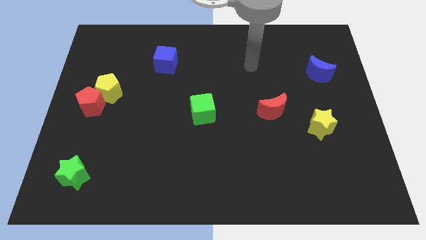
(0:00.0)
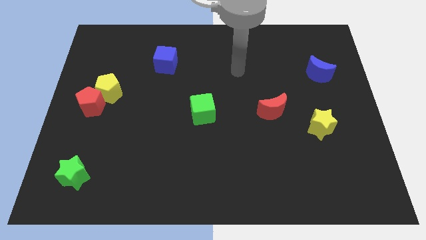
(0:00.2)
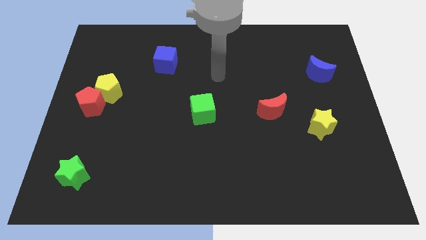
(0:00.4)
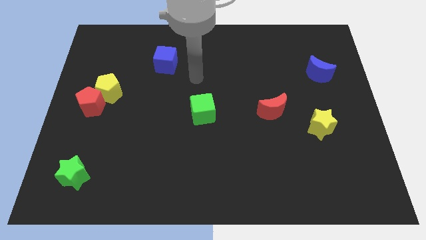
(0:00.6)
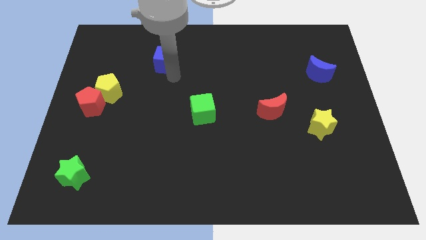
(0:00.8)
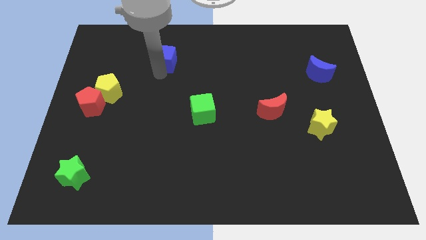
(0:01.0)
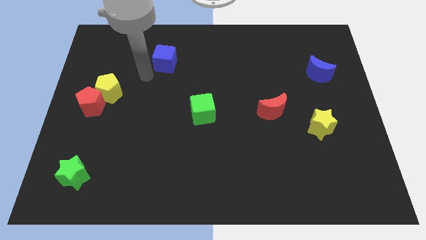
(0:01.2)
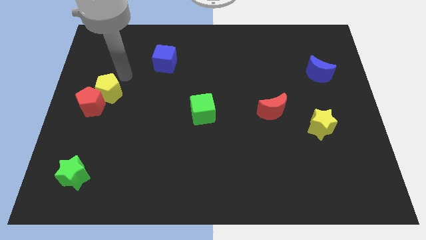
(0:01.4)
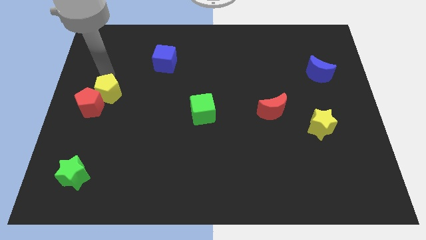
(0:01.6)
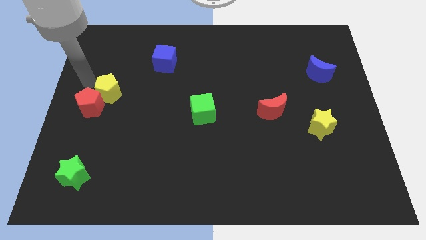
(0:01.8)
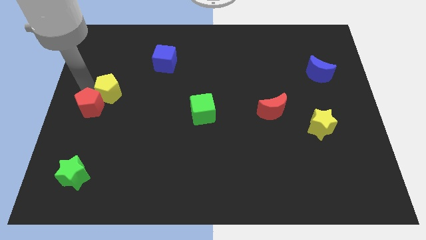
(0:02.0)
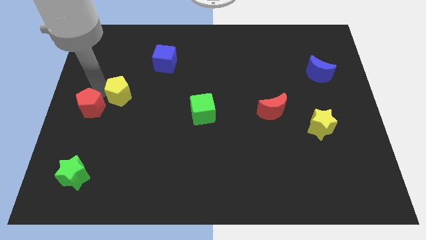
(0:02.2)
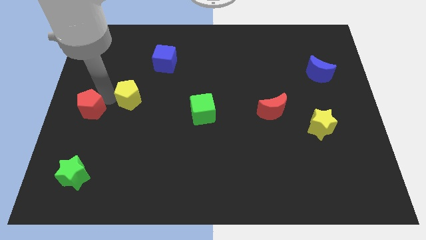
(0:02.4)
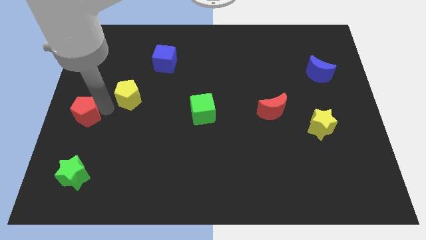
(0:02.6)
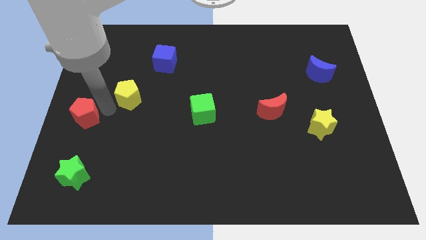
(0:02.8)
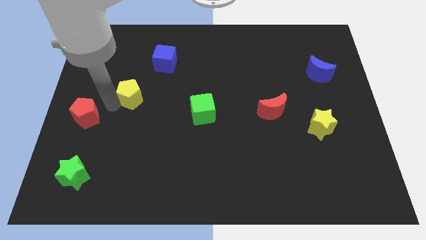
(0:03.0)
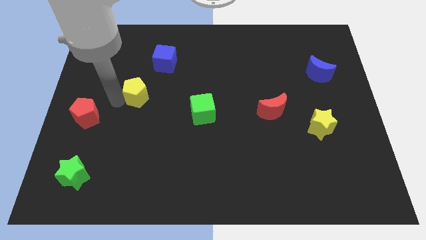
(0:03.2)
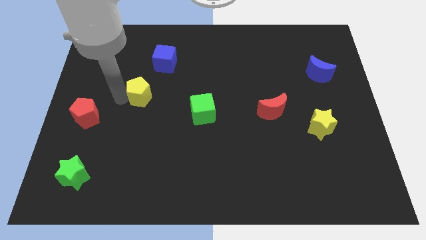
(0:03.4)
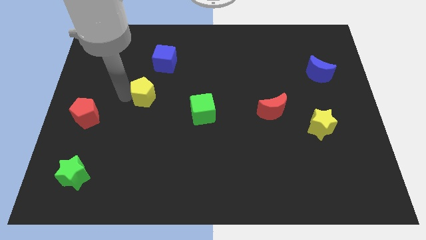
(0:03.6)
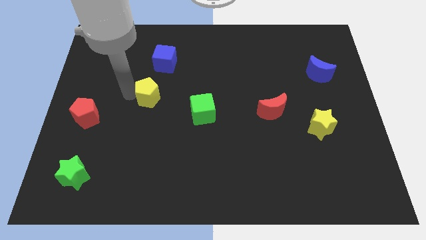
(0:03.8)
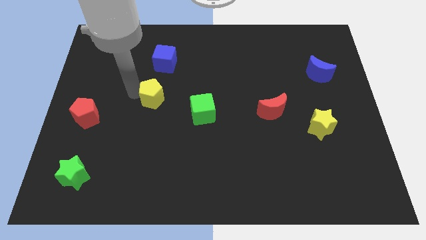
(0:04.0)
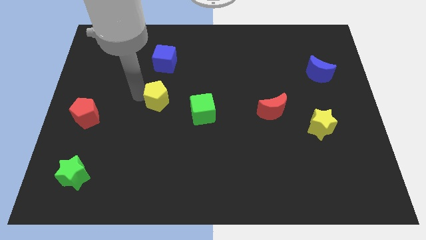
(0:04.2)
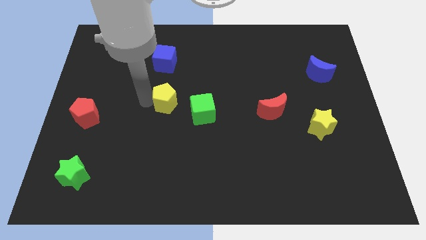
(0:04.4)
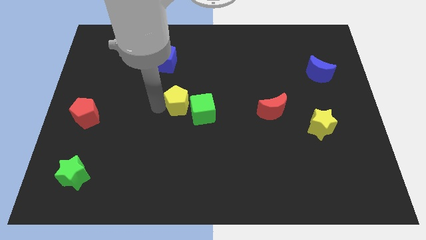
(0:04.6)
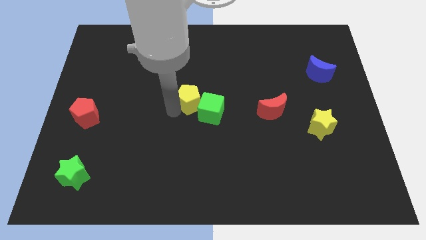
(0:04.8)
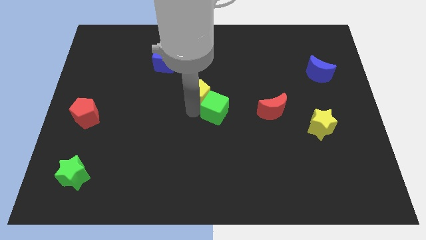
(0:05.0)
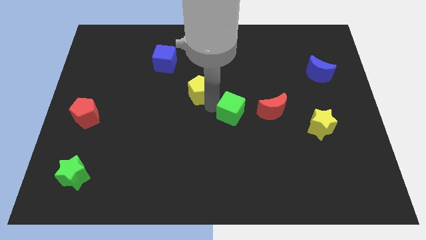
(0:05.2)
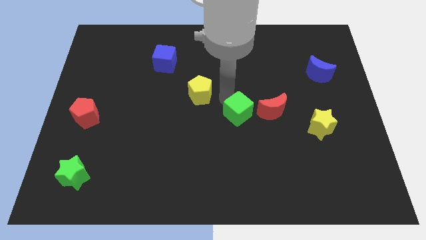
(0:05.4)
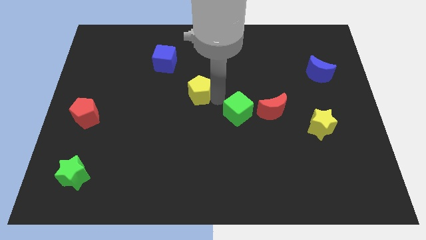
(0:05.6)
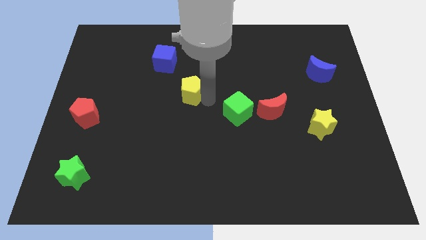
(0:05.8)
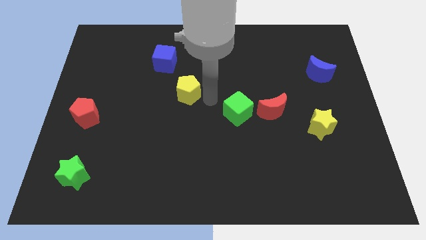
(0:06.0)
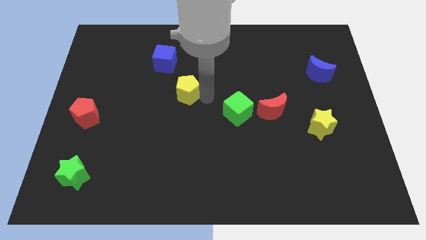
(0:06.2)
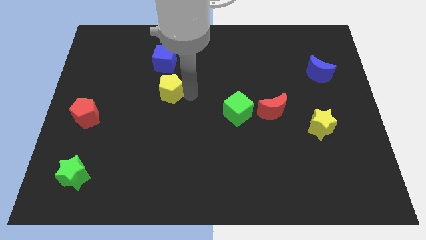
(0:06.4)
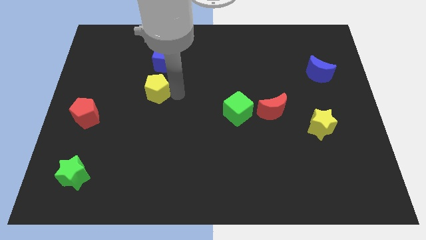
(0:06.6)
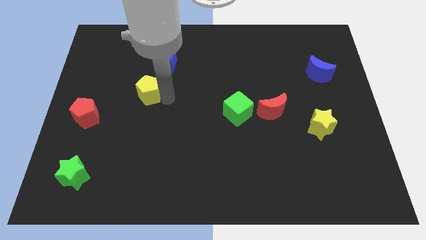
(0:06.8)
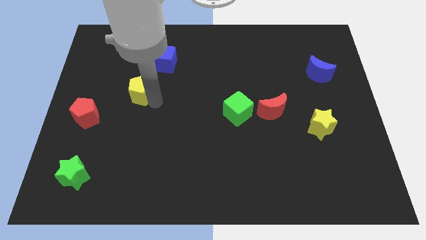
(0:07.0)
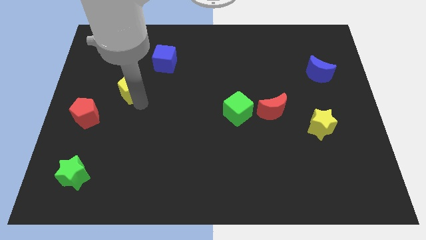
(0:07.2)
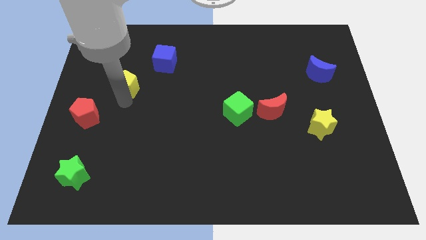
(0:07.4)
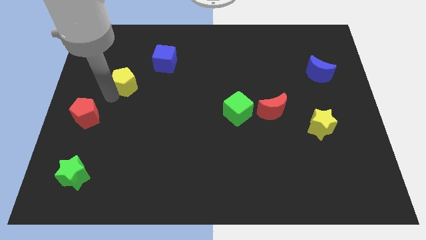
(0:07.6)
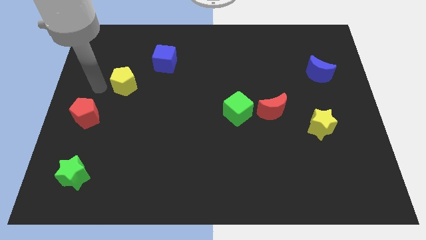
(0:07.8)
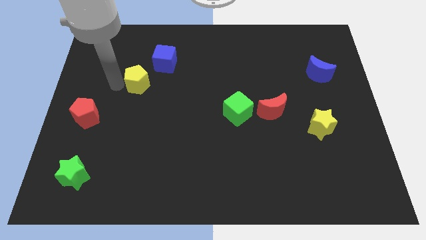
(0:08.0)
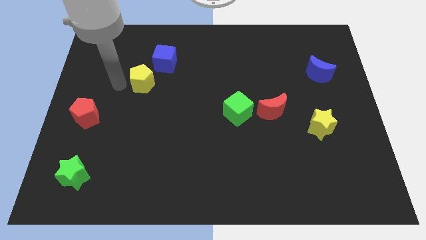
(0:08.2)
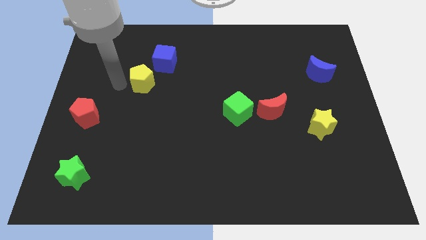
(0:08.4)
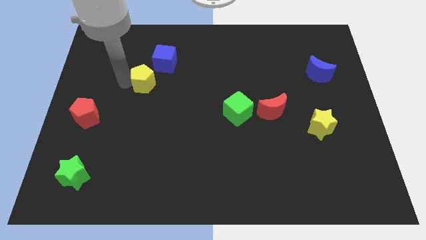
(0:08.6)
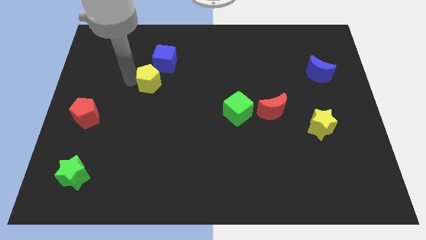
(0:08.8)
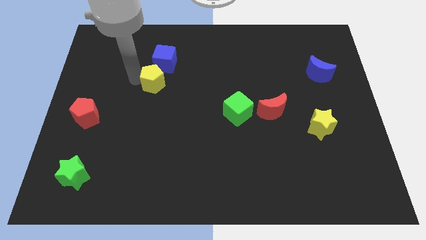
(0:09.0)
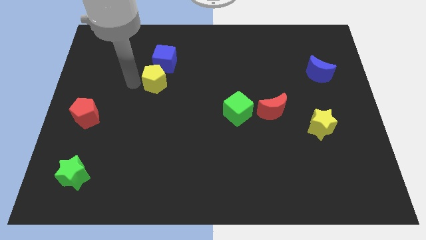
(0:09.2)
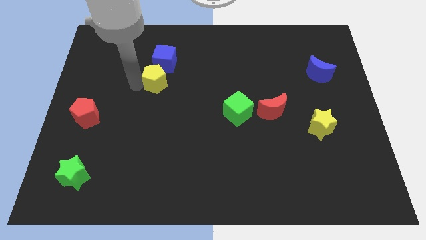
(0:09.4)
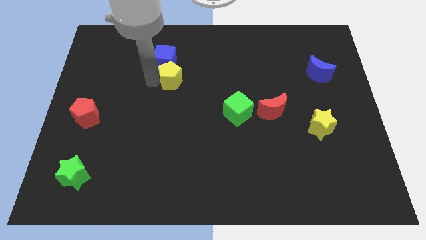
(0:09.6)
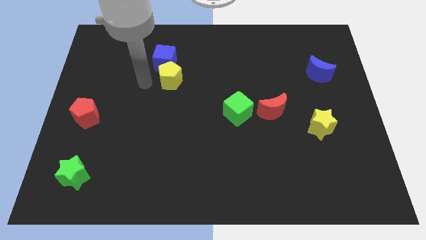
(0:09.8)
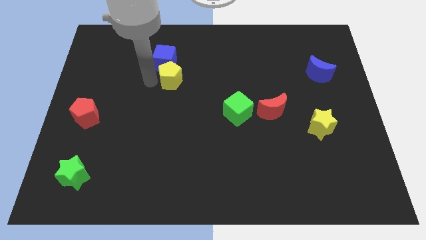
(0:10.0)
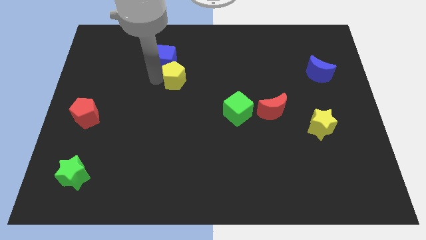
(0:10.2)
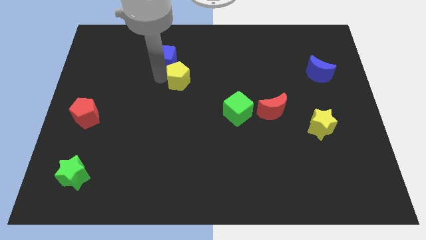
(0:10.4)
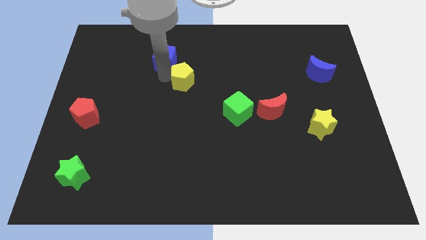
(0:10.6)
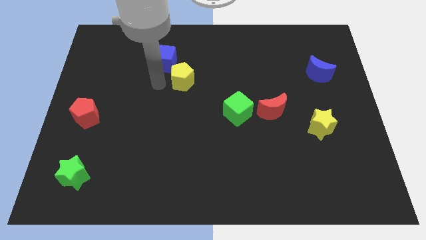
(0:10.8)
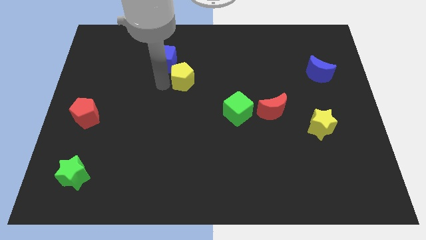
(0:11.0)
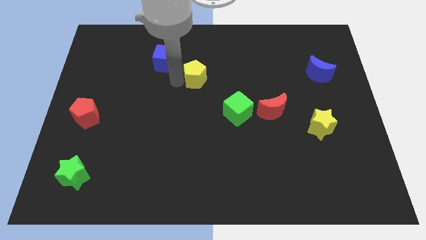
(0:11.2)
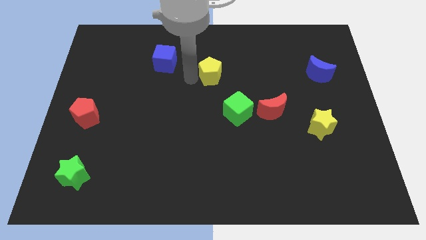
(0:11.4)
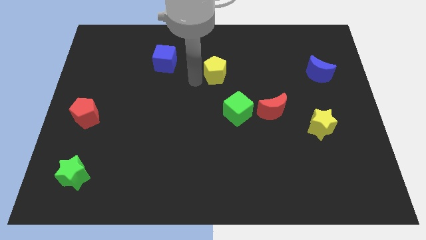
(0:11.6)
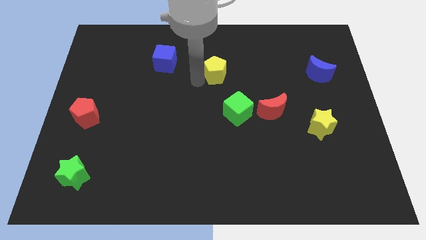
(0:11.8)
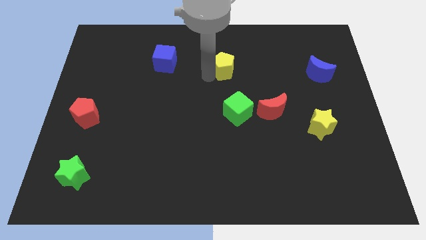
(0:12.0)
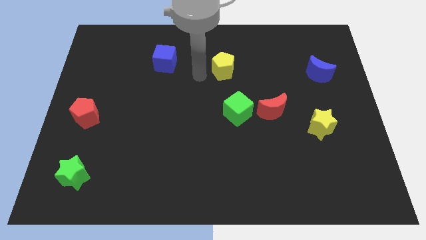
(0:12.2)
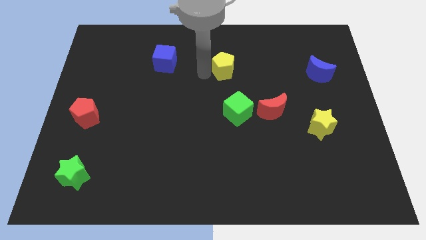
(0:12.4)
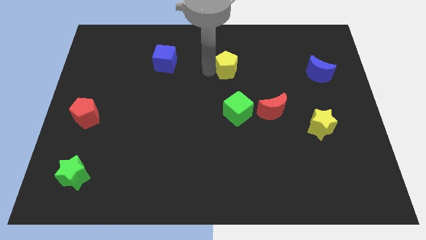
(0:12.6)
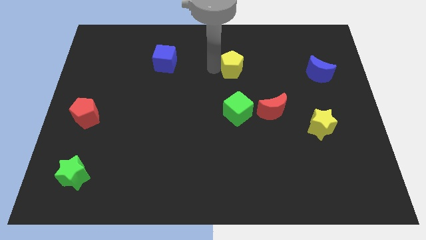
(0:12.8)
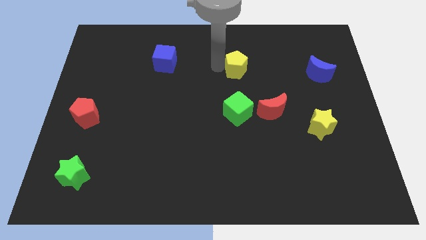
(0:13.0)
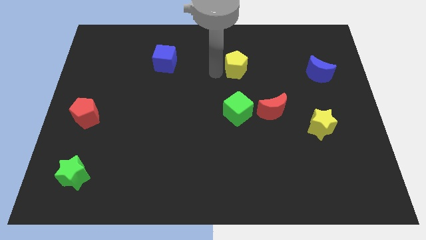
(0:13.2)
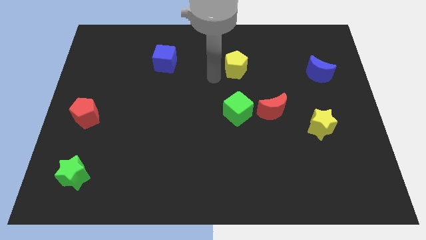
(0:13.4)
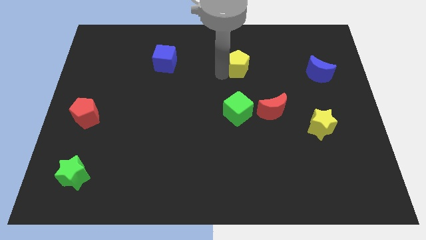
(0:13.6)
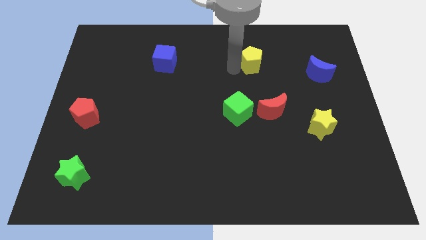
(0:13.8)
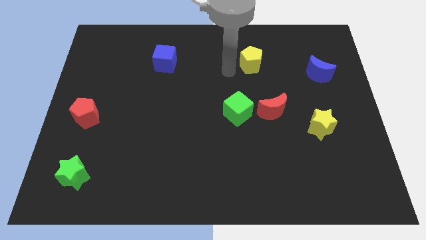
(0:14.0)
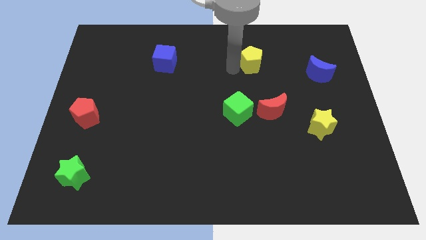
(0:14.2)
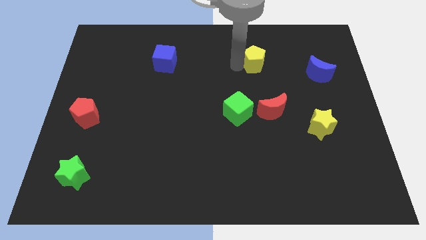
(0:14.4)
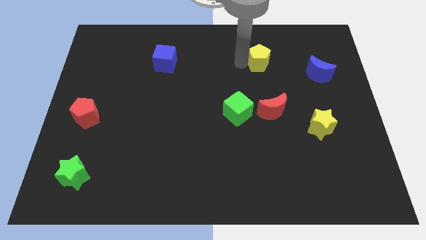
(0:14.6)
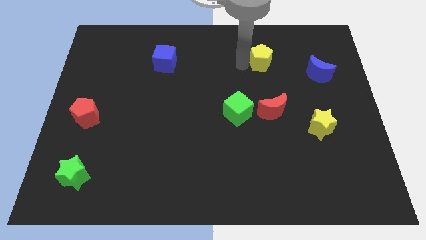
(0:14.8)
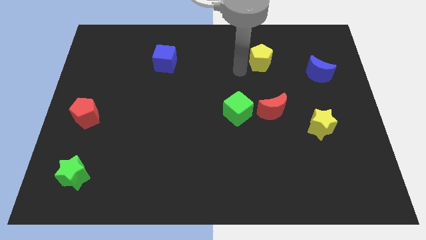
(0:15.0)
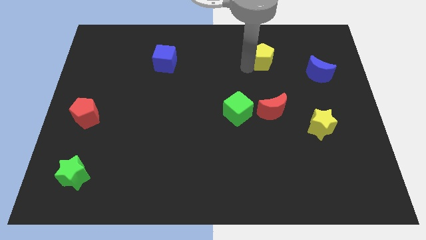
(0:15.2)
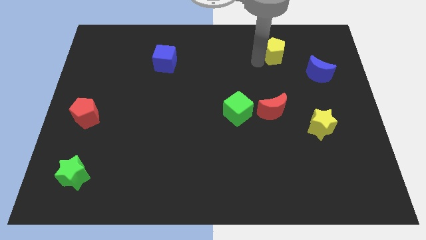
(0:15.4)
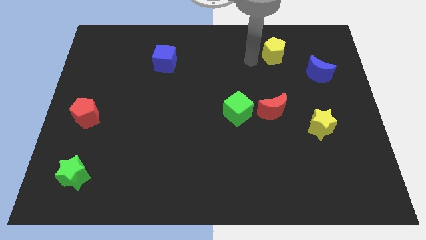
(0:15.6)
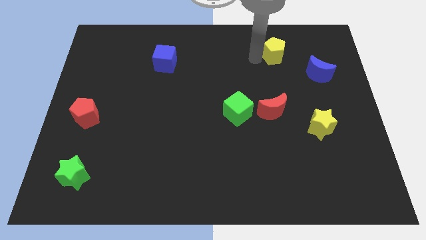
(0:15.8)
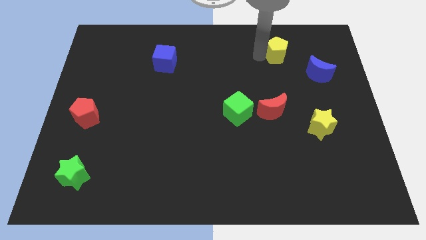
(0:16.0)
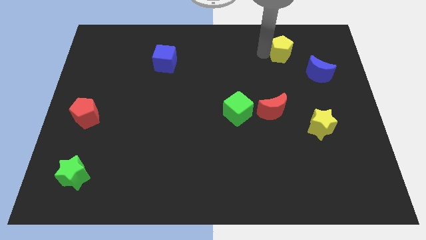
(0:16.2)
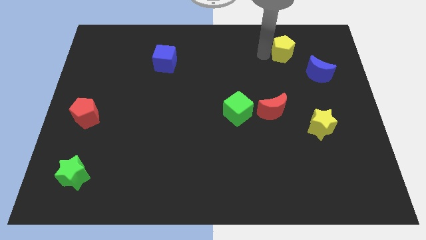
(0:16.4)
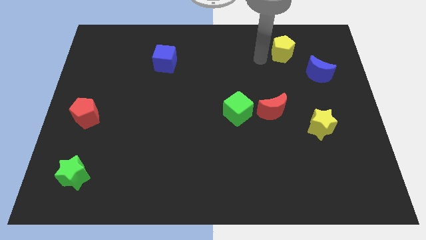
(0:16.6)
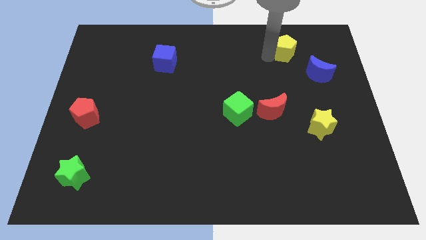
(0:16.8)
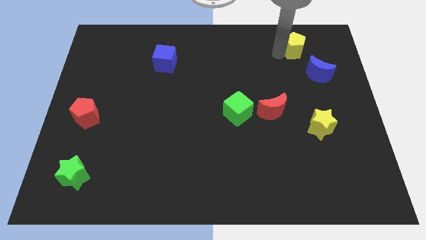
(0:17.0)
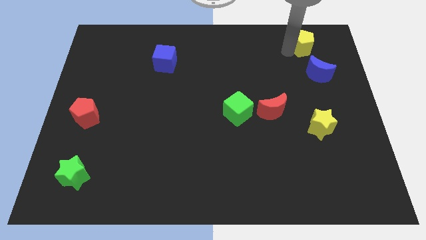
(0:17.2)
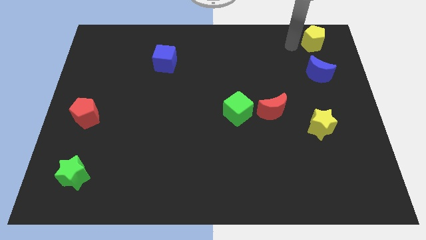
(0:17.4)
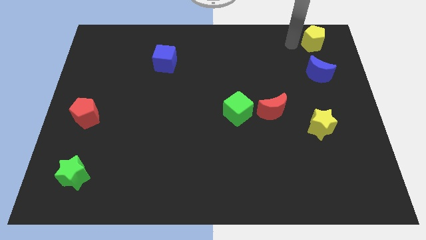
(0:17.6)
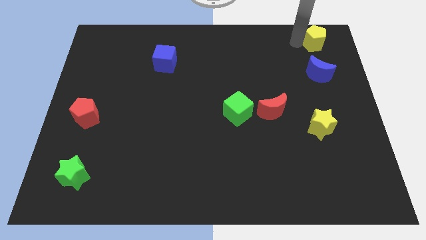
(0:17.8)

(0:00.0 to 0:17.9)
move the yellow pentagon to the top right
